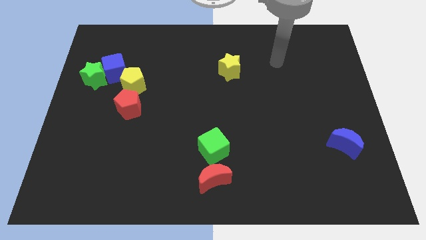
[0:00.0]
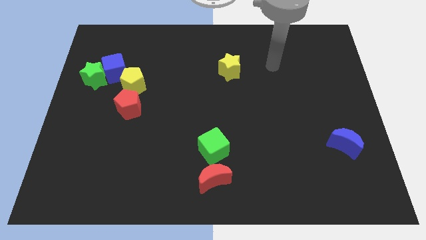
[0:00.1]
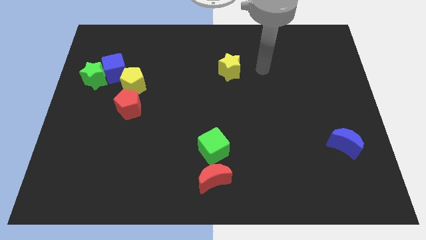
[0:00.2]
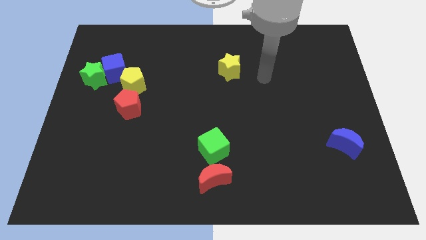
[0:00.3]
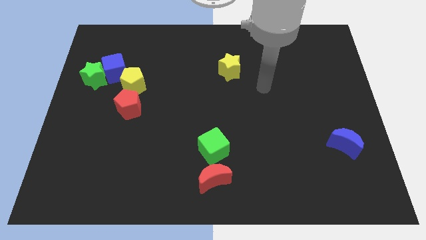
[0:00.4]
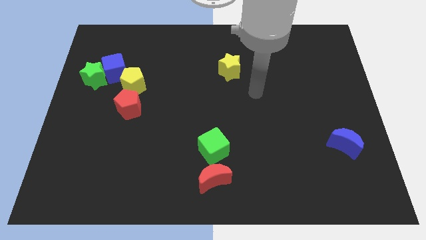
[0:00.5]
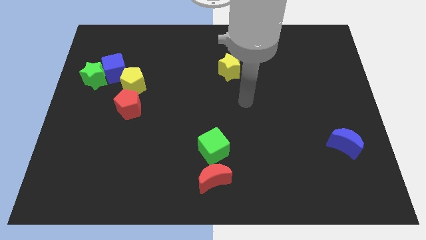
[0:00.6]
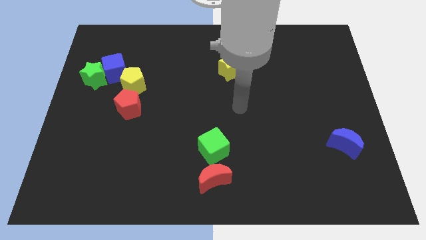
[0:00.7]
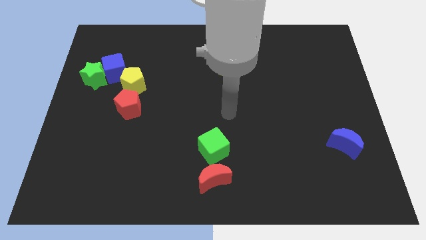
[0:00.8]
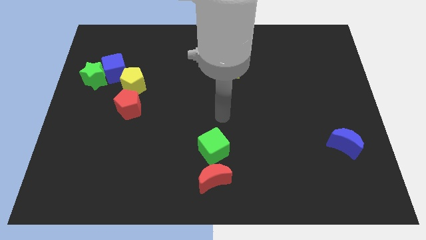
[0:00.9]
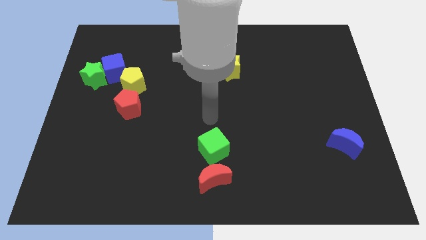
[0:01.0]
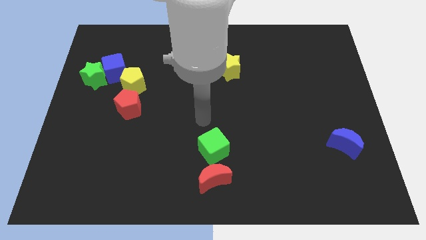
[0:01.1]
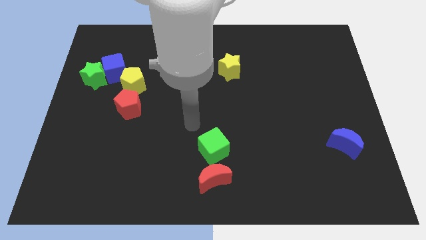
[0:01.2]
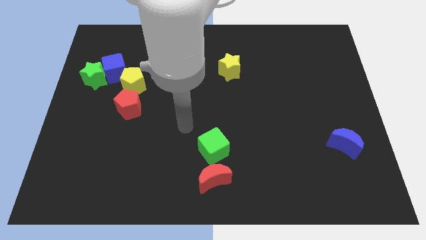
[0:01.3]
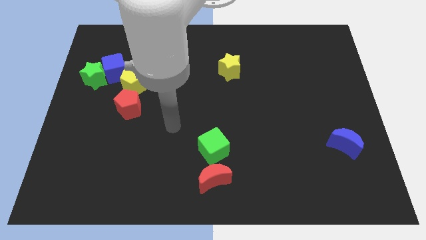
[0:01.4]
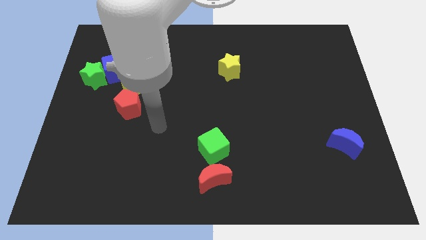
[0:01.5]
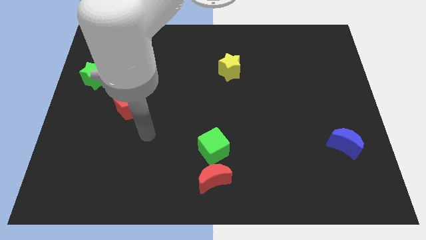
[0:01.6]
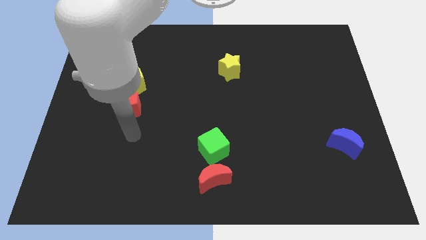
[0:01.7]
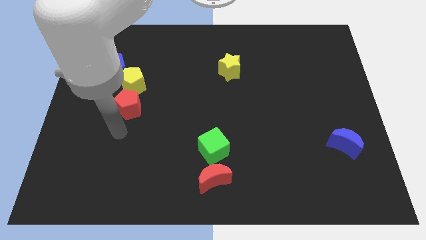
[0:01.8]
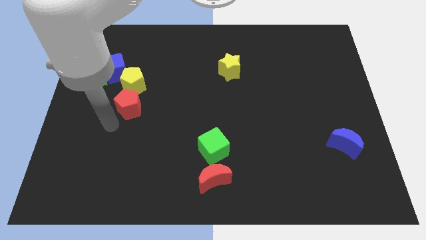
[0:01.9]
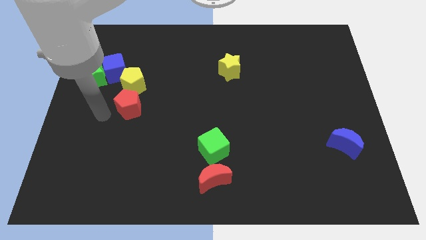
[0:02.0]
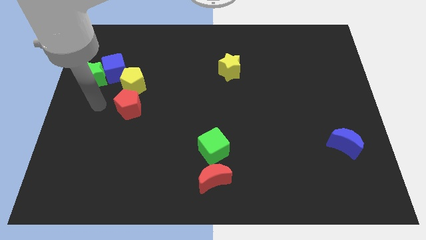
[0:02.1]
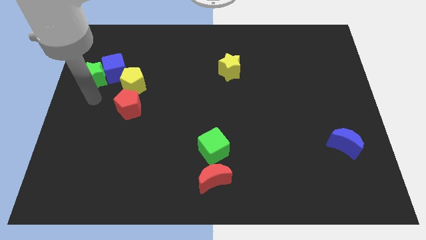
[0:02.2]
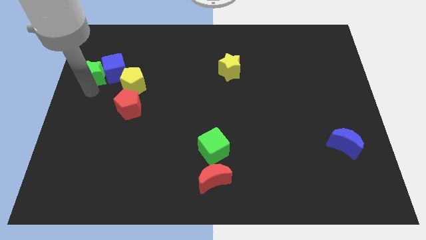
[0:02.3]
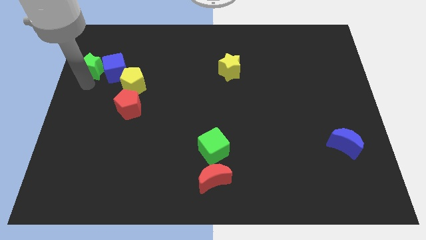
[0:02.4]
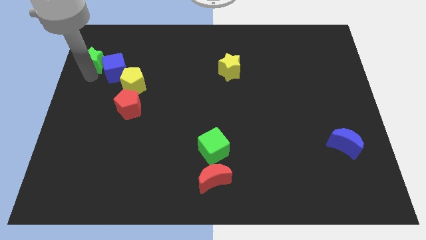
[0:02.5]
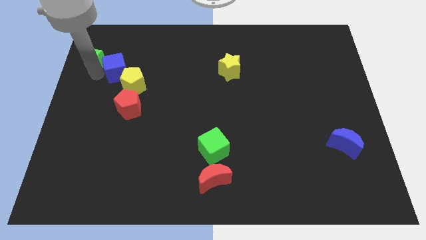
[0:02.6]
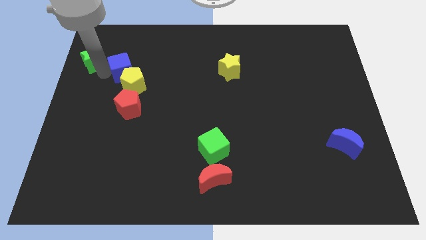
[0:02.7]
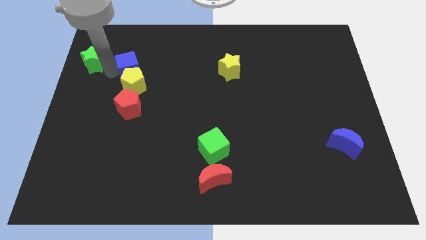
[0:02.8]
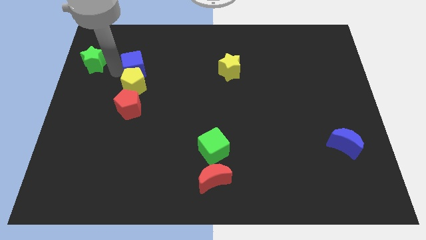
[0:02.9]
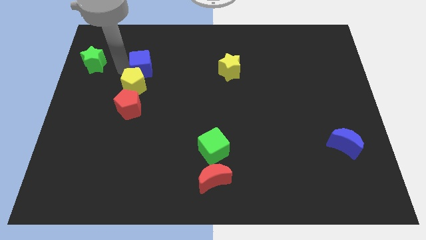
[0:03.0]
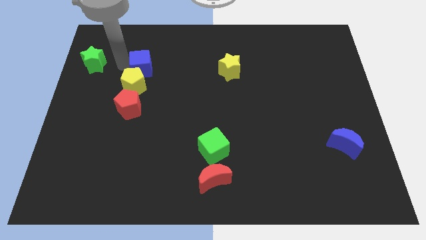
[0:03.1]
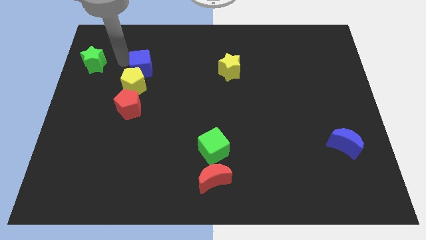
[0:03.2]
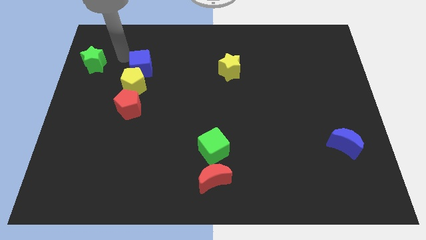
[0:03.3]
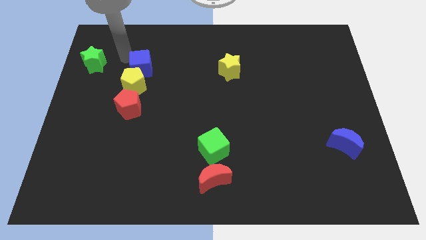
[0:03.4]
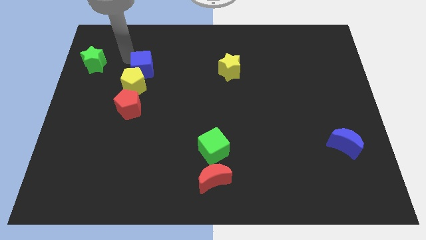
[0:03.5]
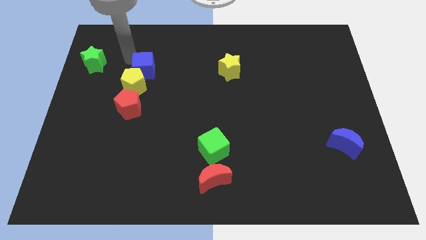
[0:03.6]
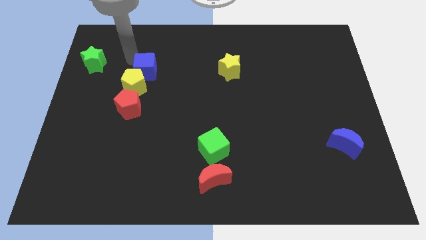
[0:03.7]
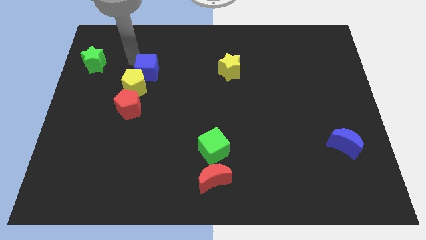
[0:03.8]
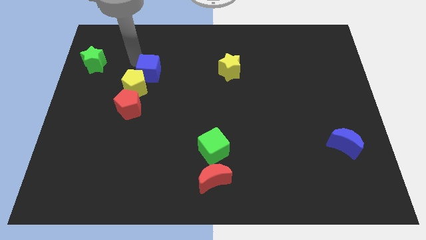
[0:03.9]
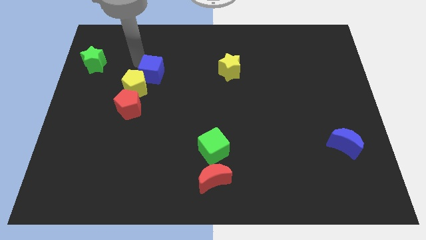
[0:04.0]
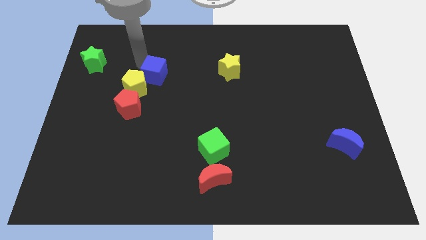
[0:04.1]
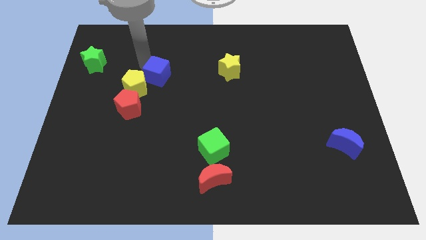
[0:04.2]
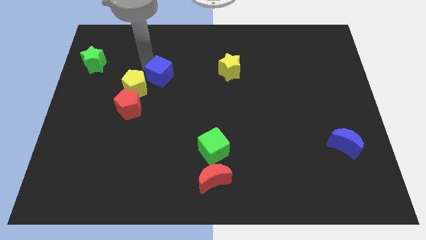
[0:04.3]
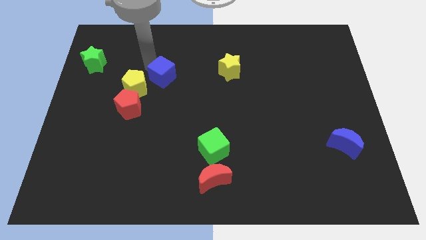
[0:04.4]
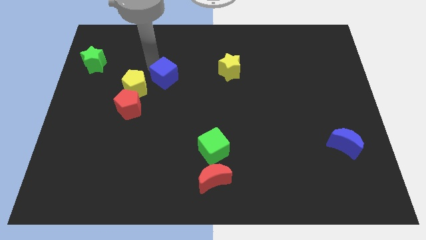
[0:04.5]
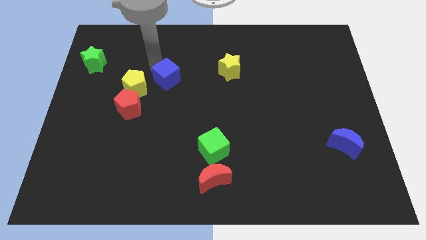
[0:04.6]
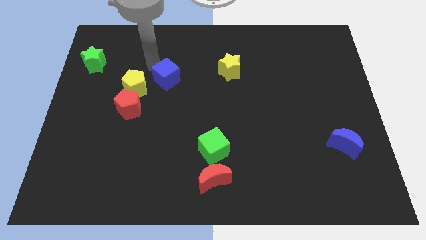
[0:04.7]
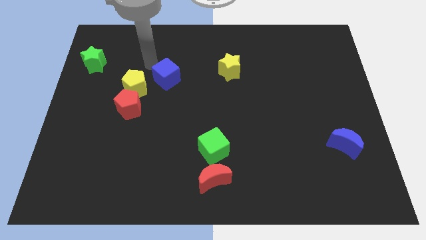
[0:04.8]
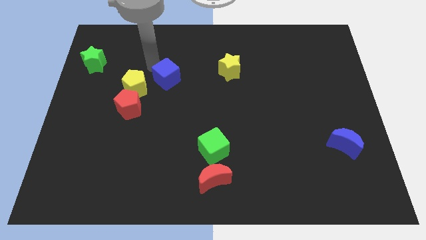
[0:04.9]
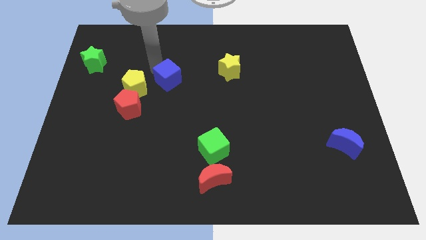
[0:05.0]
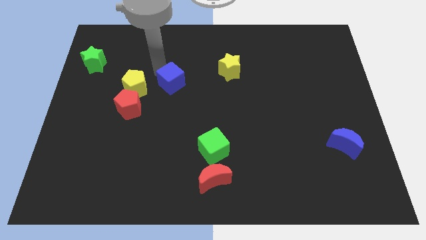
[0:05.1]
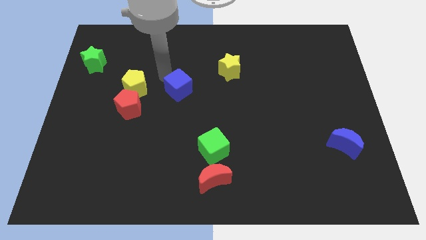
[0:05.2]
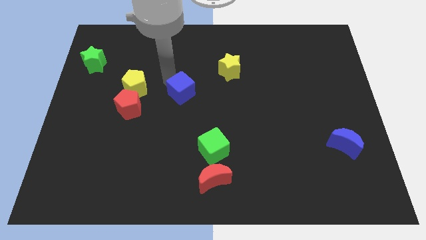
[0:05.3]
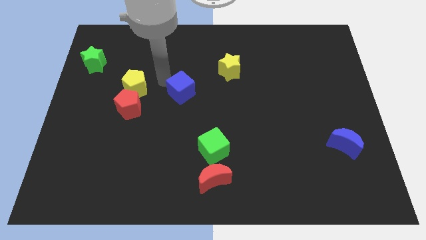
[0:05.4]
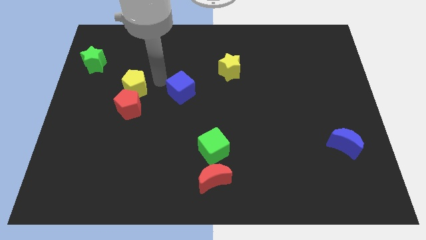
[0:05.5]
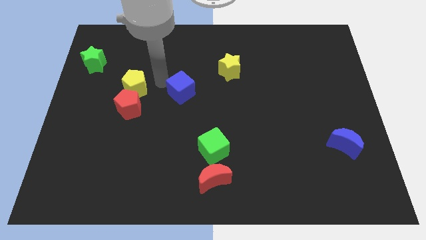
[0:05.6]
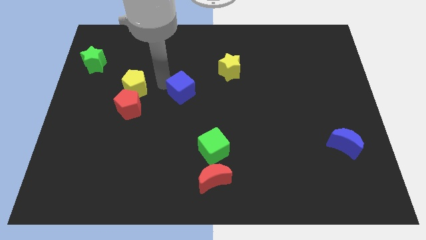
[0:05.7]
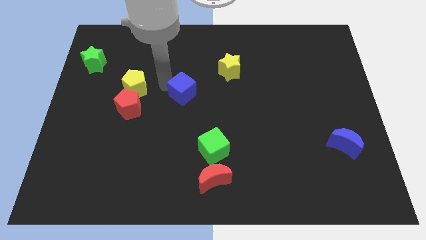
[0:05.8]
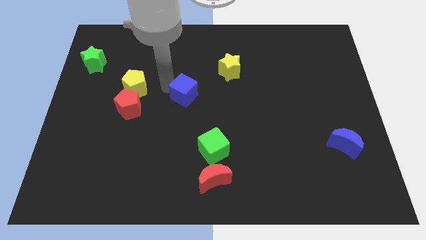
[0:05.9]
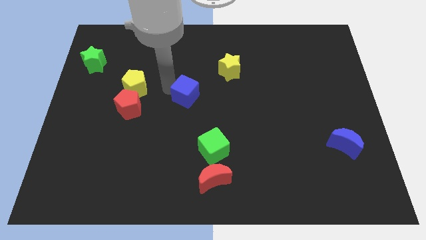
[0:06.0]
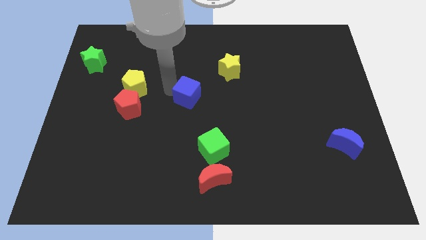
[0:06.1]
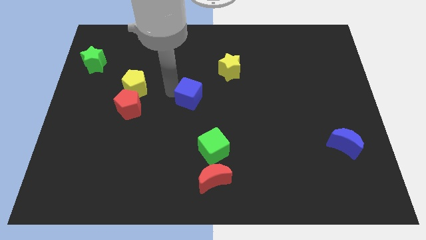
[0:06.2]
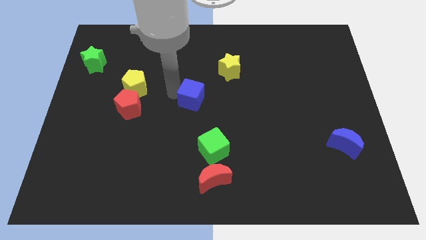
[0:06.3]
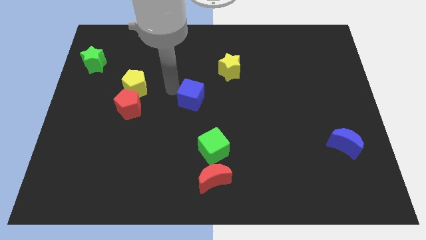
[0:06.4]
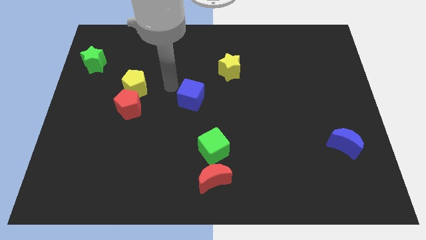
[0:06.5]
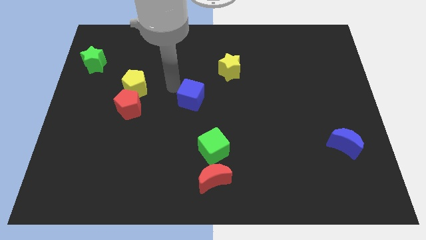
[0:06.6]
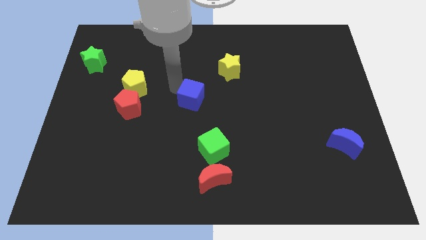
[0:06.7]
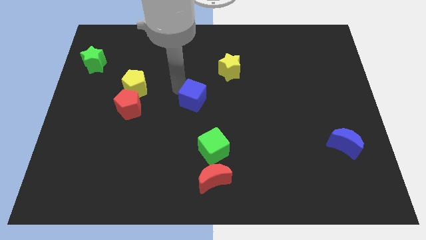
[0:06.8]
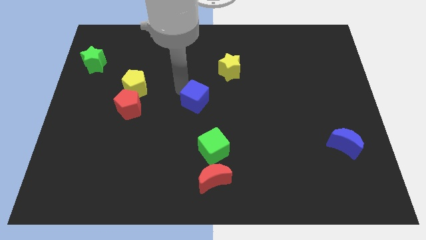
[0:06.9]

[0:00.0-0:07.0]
push the blue cube to the top side of the green cube
